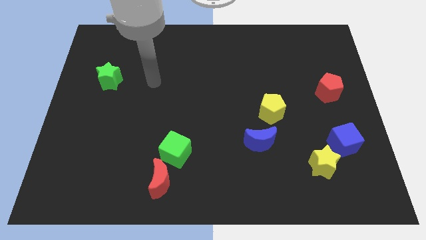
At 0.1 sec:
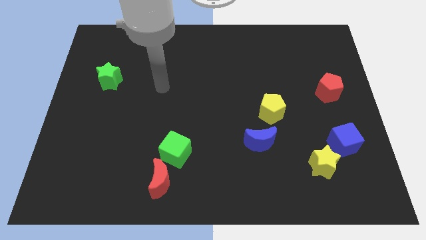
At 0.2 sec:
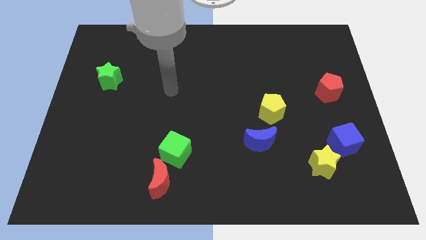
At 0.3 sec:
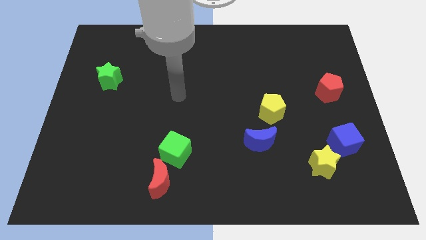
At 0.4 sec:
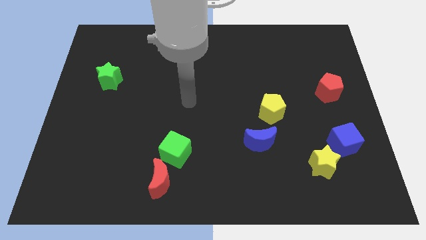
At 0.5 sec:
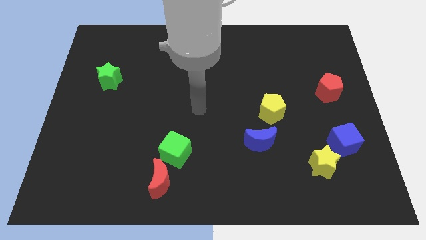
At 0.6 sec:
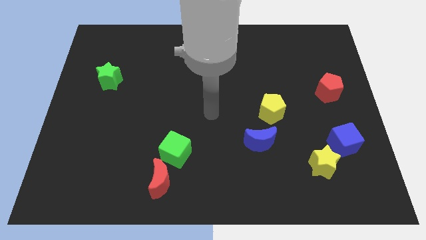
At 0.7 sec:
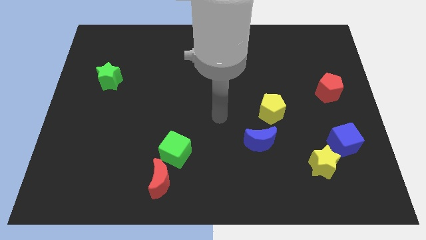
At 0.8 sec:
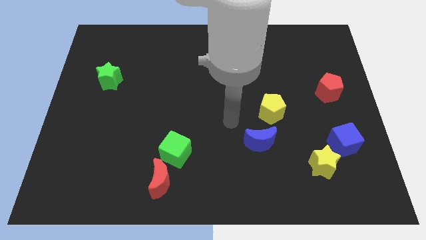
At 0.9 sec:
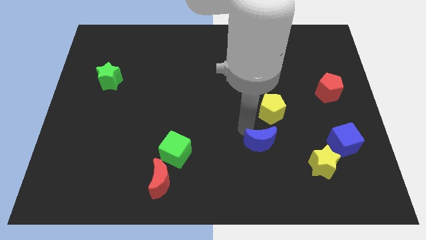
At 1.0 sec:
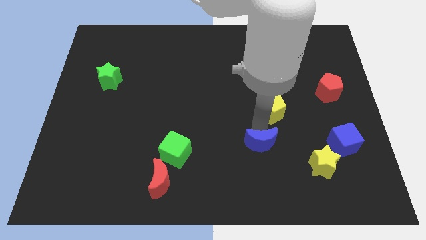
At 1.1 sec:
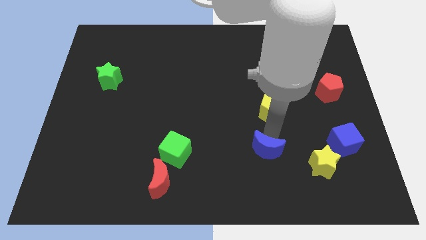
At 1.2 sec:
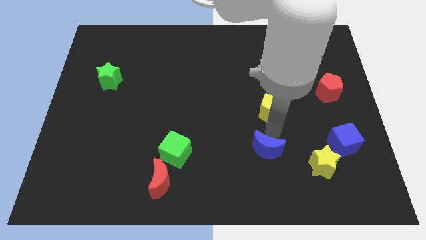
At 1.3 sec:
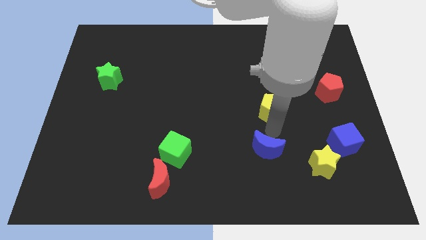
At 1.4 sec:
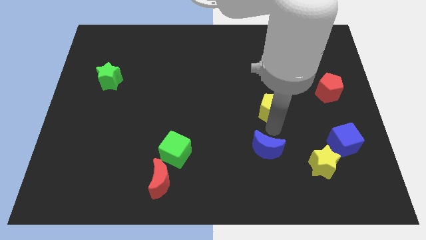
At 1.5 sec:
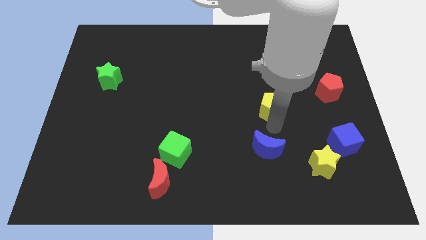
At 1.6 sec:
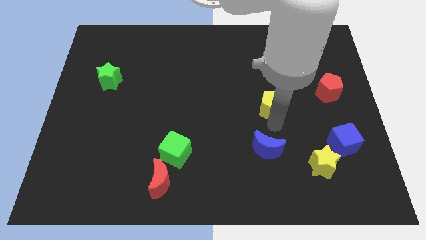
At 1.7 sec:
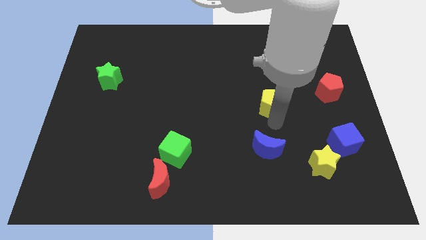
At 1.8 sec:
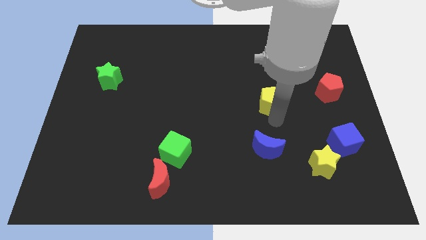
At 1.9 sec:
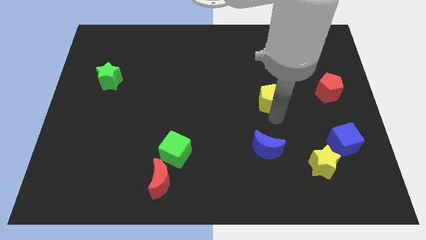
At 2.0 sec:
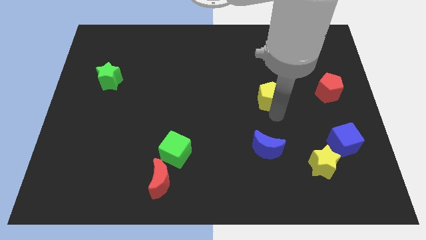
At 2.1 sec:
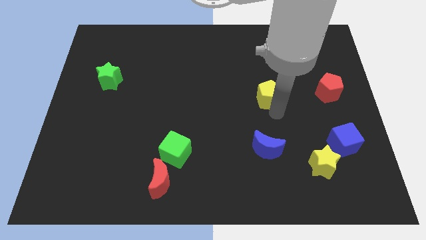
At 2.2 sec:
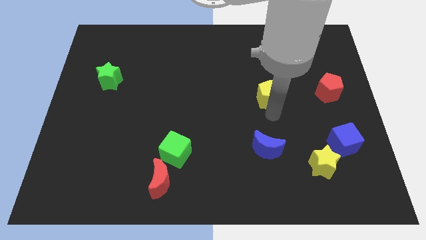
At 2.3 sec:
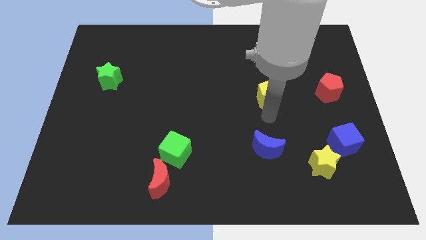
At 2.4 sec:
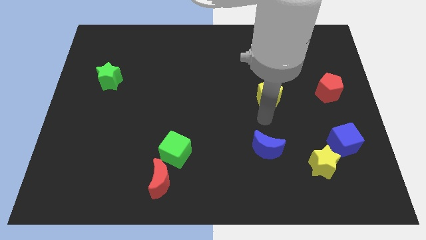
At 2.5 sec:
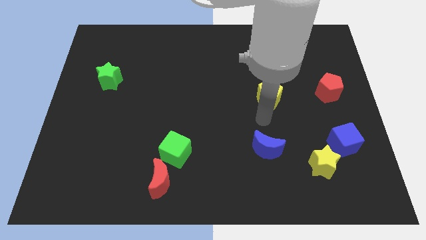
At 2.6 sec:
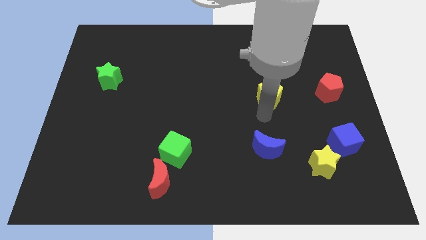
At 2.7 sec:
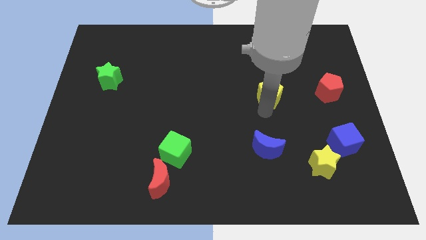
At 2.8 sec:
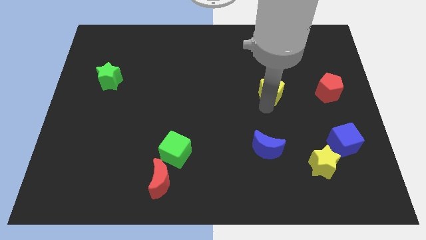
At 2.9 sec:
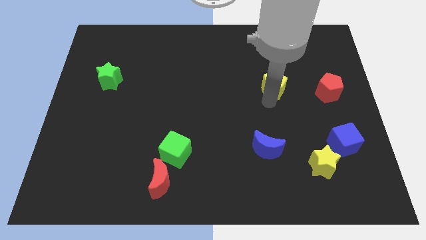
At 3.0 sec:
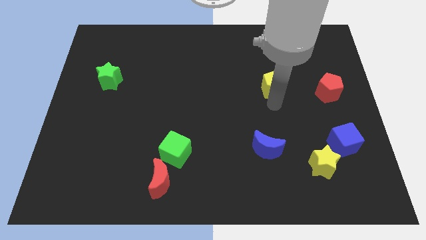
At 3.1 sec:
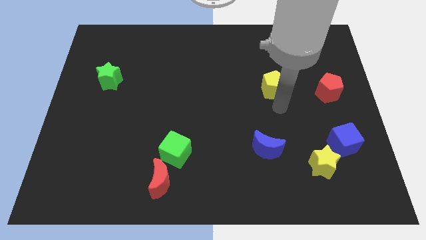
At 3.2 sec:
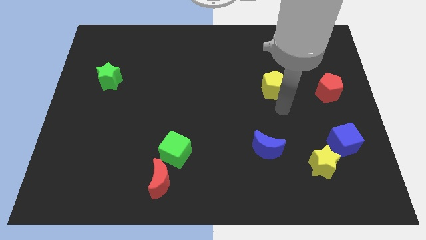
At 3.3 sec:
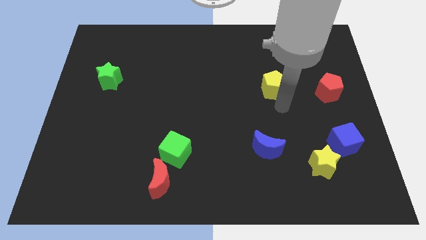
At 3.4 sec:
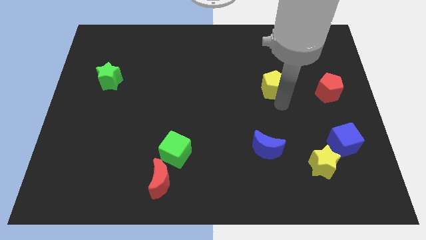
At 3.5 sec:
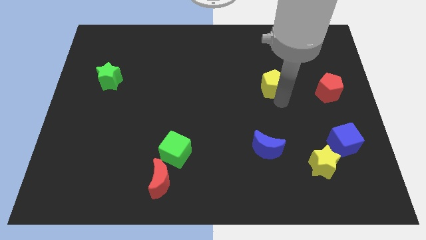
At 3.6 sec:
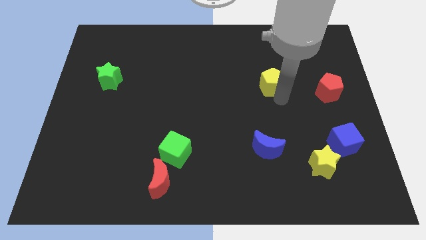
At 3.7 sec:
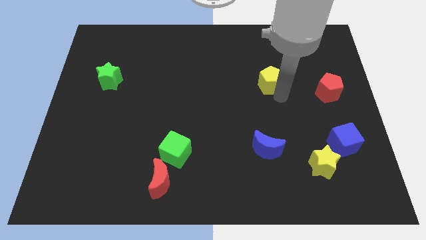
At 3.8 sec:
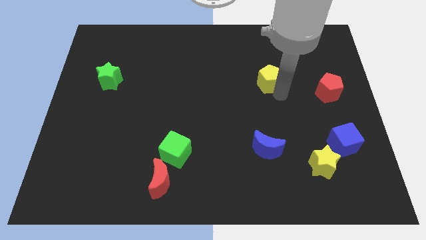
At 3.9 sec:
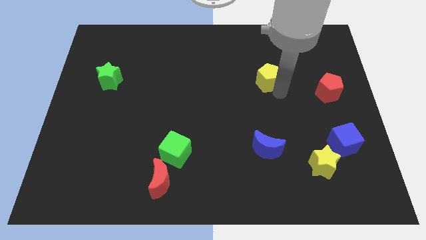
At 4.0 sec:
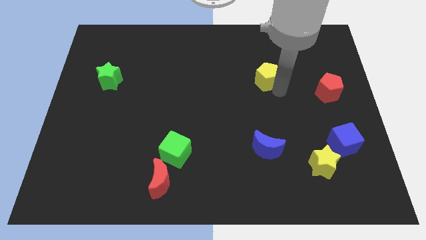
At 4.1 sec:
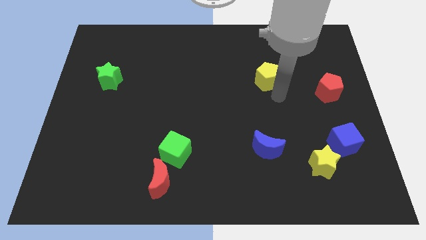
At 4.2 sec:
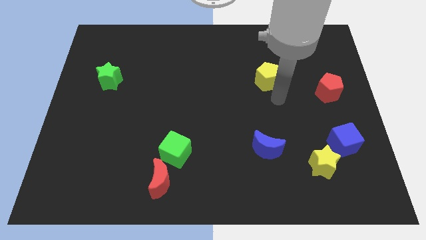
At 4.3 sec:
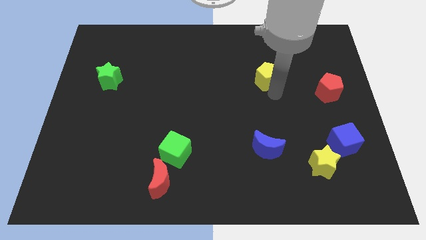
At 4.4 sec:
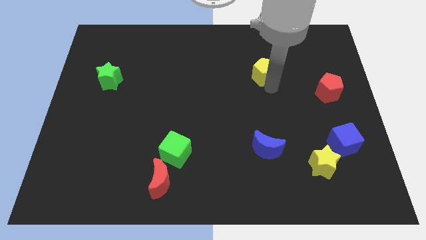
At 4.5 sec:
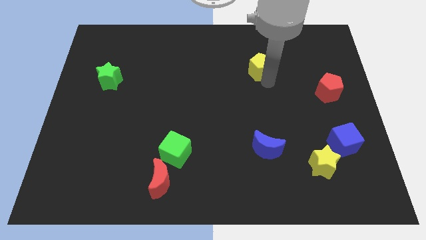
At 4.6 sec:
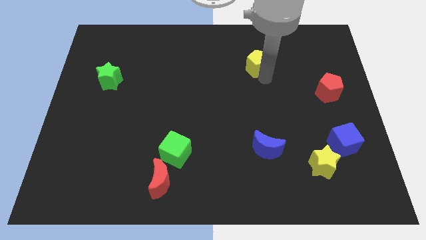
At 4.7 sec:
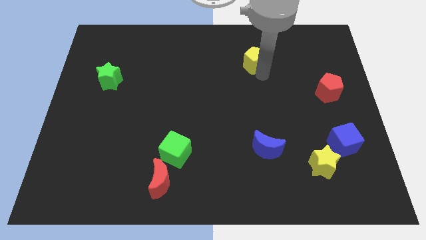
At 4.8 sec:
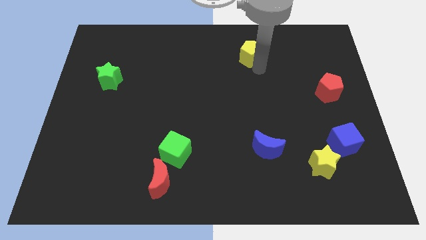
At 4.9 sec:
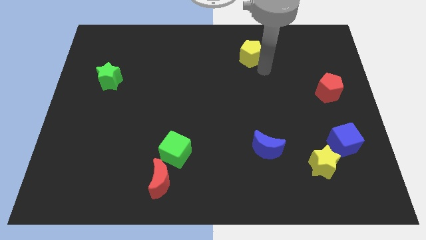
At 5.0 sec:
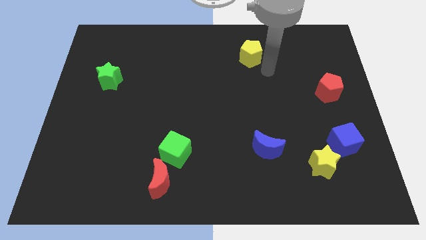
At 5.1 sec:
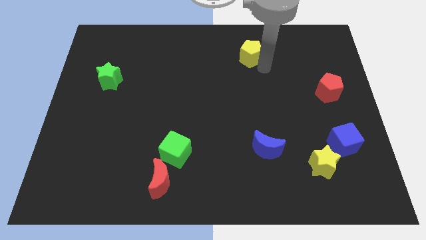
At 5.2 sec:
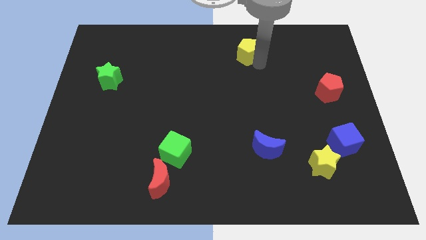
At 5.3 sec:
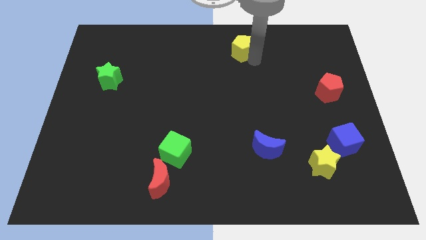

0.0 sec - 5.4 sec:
push the yellow pentagon to the top side

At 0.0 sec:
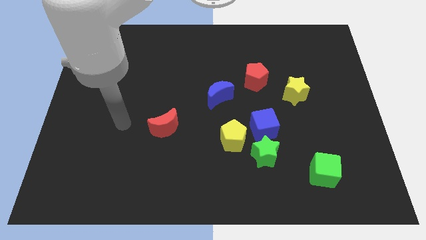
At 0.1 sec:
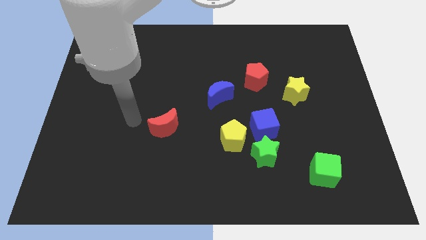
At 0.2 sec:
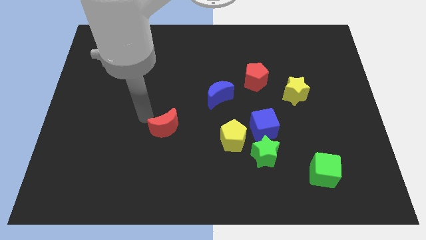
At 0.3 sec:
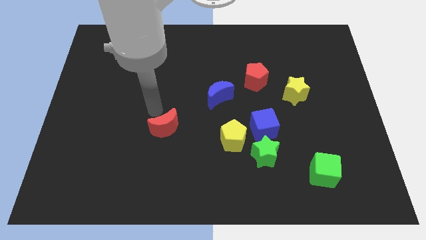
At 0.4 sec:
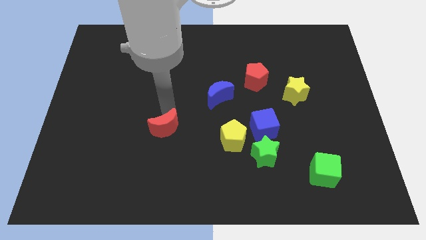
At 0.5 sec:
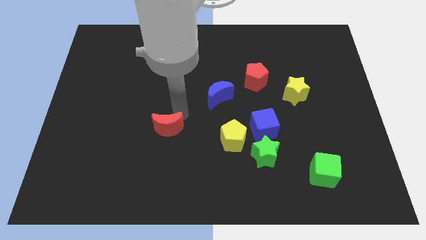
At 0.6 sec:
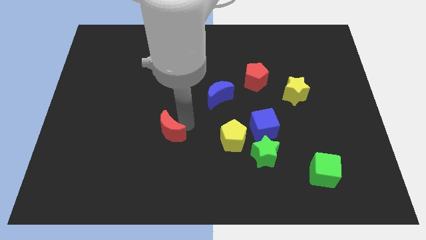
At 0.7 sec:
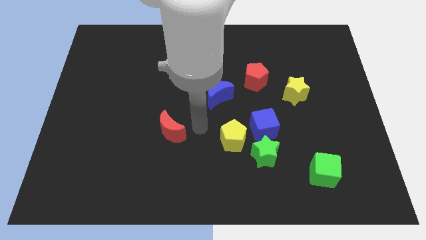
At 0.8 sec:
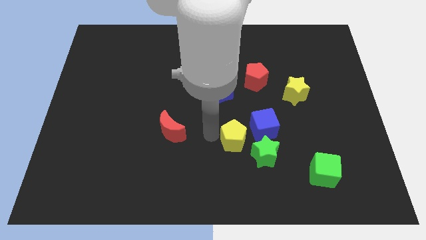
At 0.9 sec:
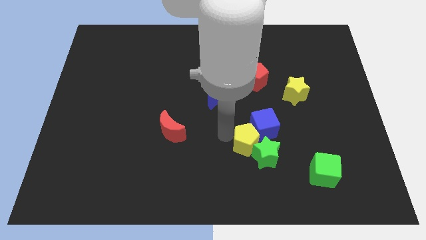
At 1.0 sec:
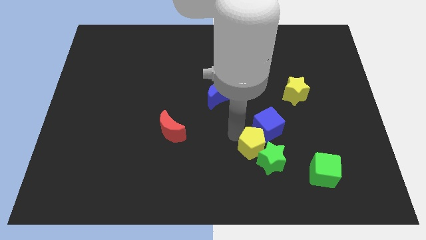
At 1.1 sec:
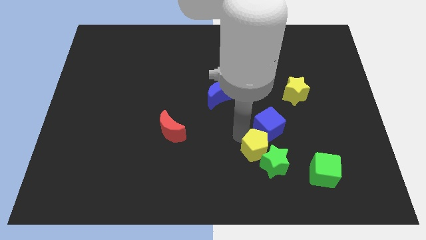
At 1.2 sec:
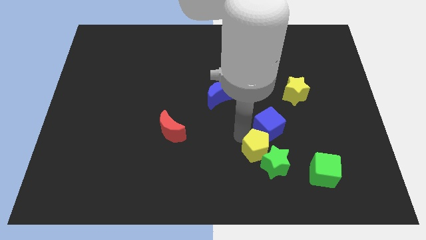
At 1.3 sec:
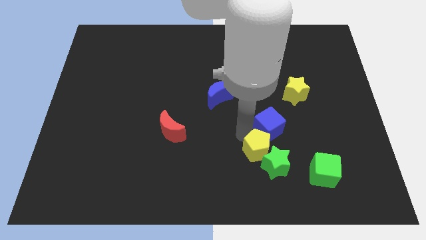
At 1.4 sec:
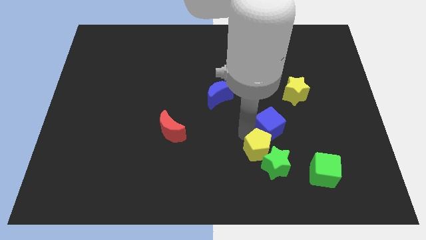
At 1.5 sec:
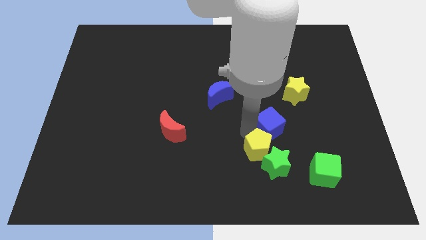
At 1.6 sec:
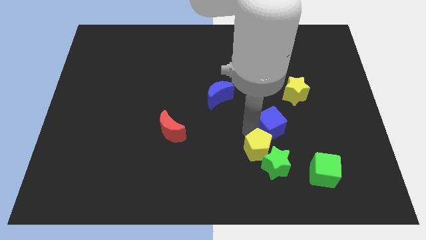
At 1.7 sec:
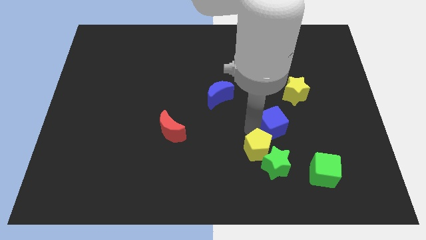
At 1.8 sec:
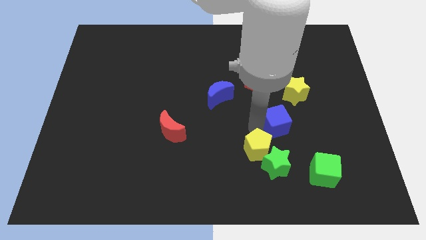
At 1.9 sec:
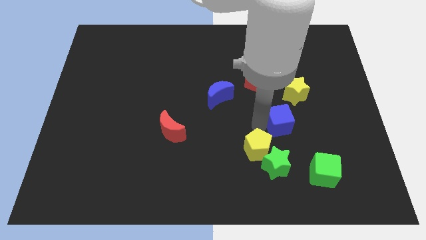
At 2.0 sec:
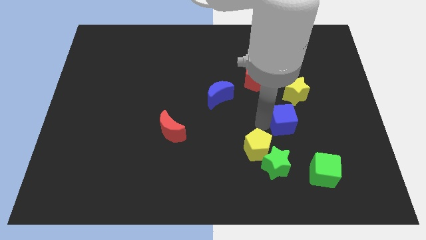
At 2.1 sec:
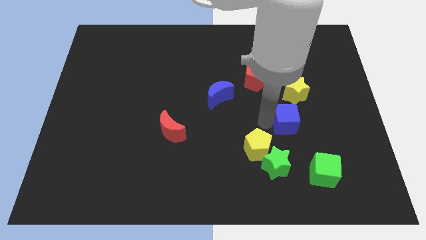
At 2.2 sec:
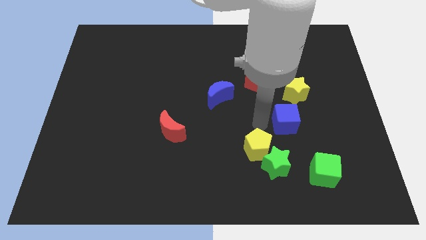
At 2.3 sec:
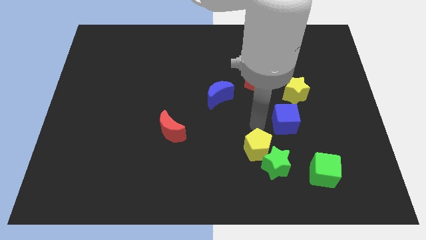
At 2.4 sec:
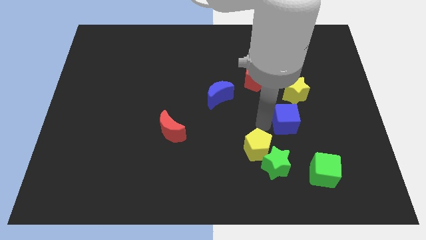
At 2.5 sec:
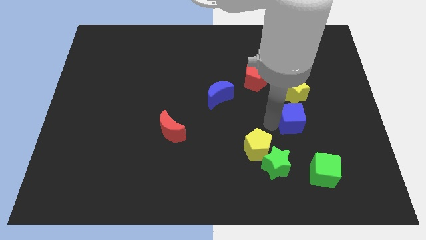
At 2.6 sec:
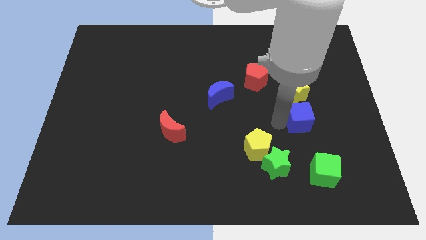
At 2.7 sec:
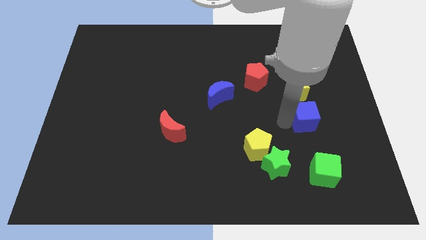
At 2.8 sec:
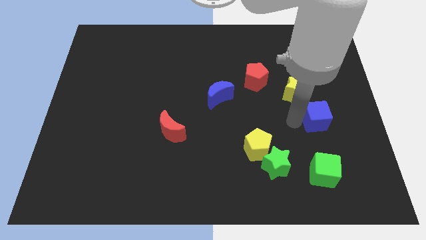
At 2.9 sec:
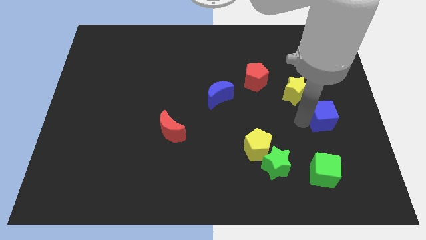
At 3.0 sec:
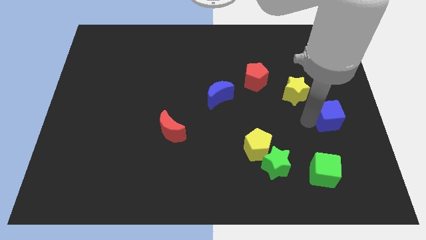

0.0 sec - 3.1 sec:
put the blue cube to the right side of the board
